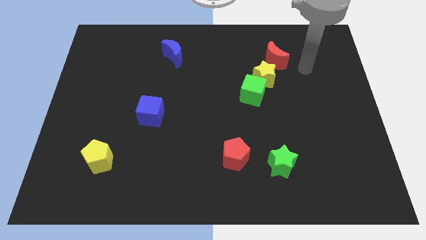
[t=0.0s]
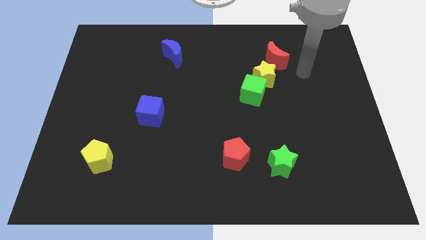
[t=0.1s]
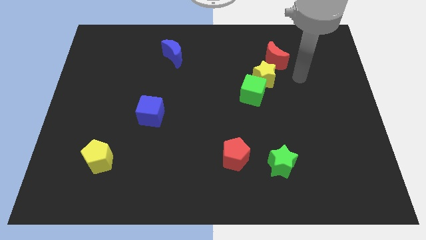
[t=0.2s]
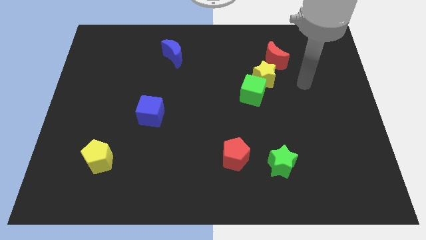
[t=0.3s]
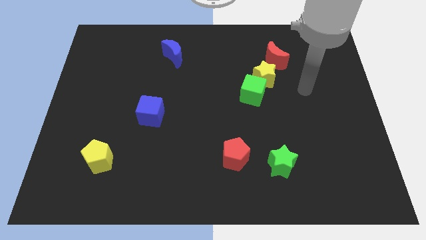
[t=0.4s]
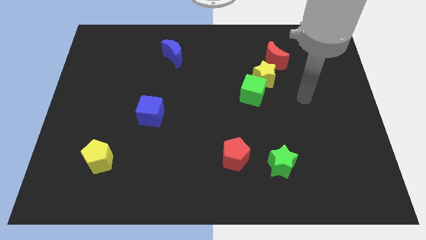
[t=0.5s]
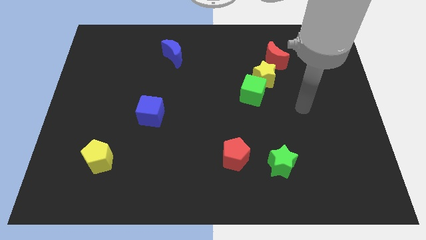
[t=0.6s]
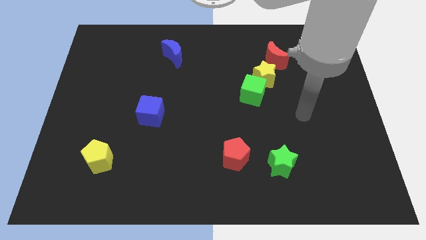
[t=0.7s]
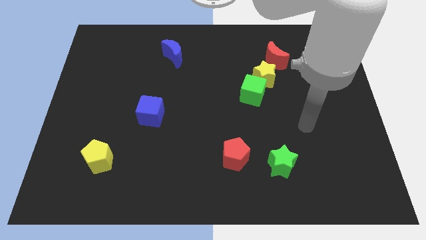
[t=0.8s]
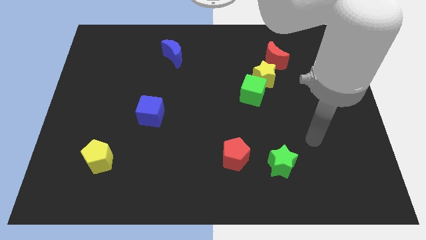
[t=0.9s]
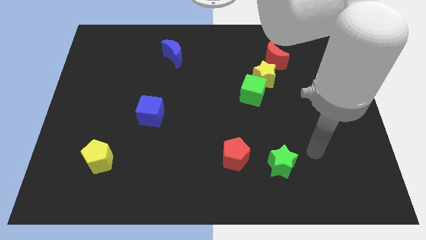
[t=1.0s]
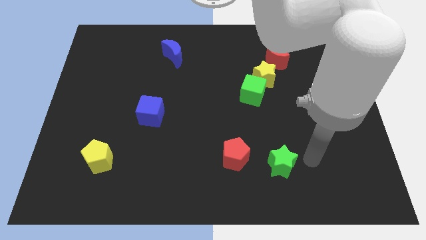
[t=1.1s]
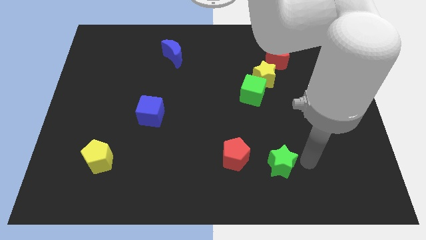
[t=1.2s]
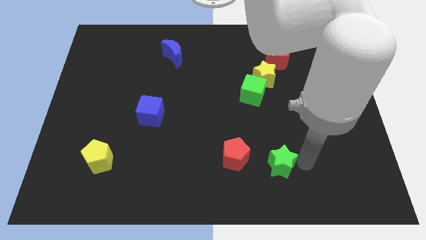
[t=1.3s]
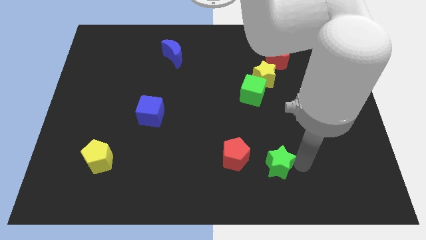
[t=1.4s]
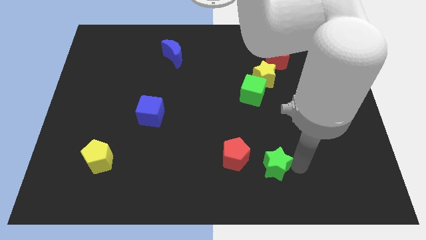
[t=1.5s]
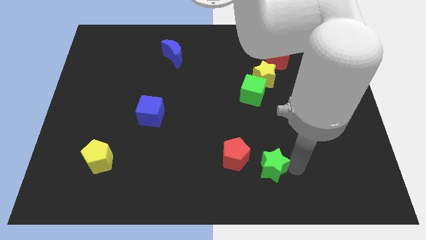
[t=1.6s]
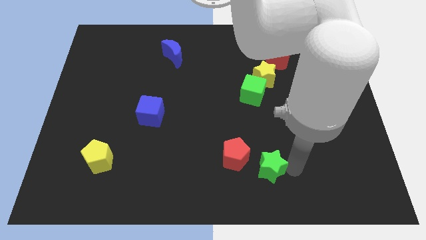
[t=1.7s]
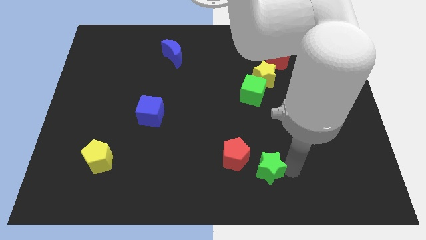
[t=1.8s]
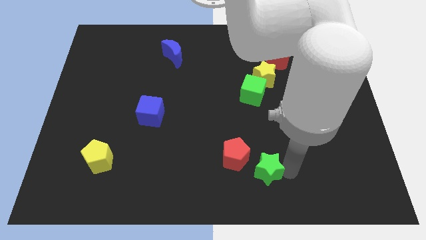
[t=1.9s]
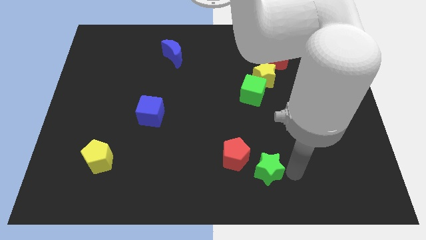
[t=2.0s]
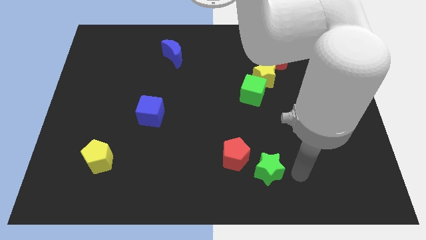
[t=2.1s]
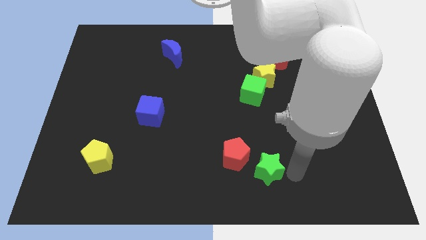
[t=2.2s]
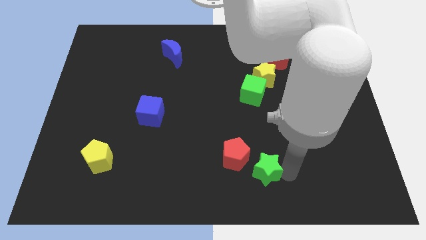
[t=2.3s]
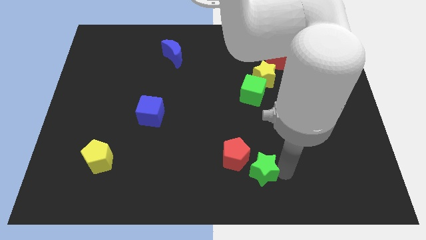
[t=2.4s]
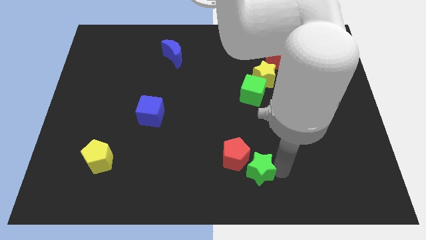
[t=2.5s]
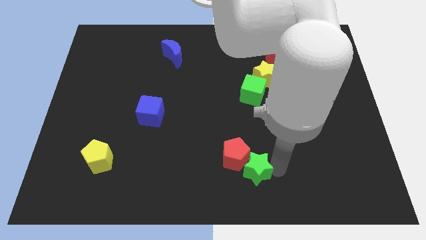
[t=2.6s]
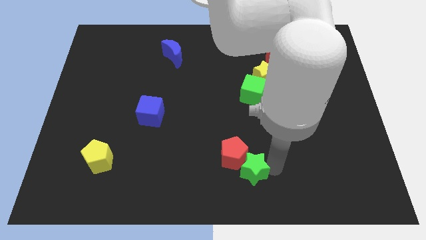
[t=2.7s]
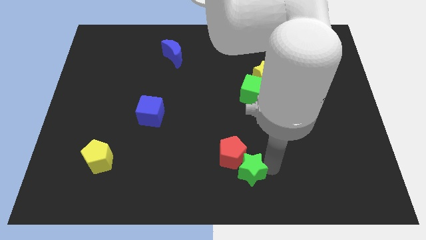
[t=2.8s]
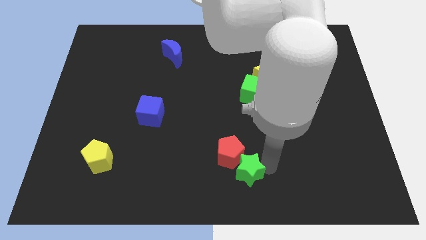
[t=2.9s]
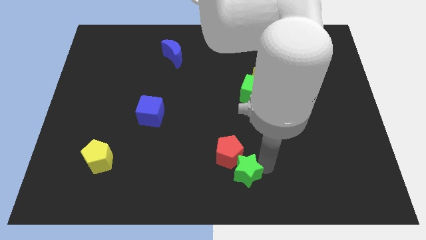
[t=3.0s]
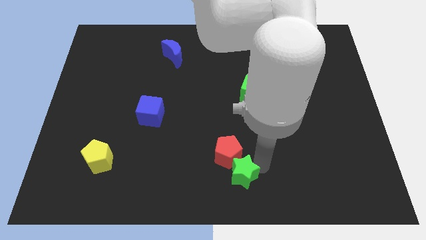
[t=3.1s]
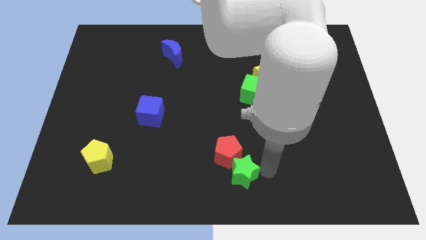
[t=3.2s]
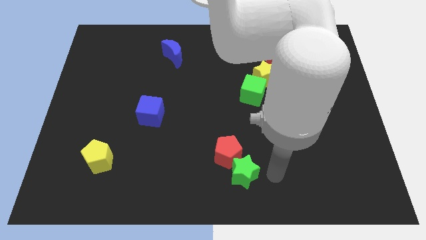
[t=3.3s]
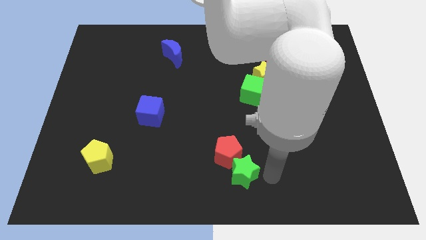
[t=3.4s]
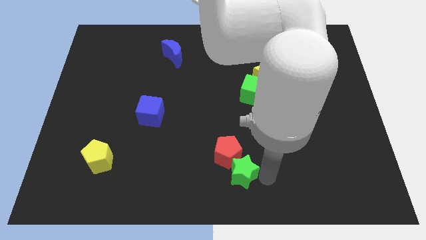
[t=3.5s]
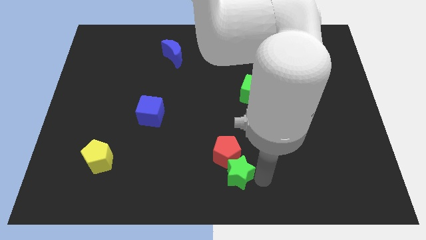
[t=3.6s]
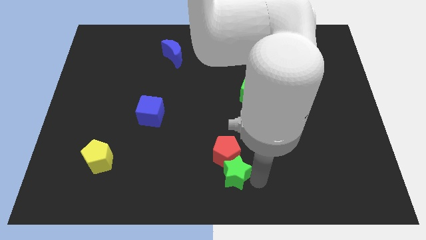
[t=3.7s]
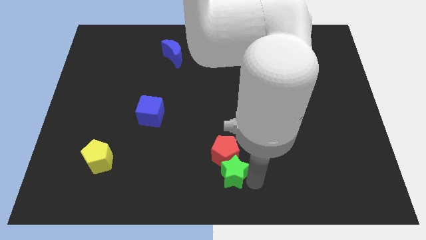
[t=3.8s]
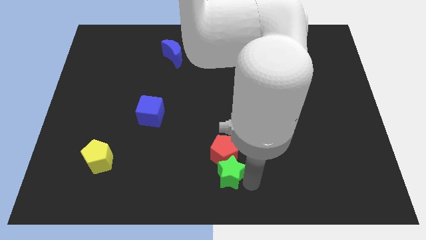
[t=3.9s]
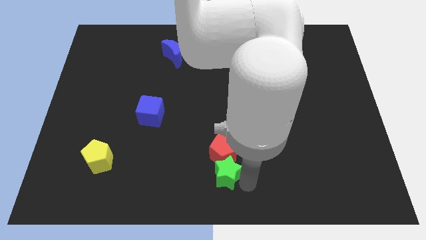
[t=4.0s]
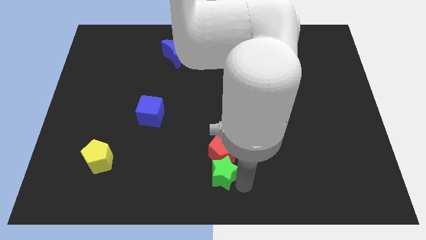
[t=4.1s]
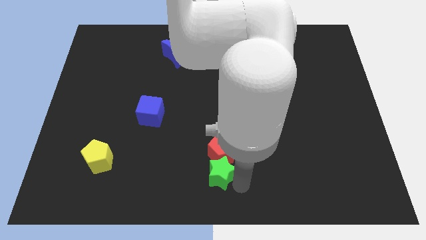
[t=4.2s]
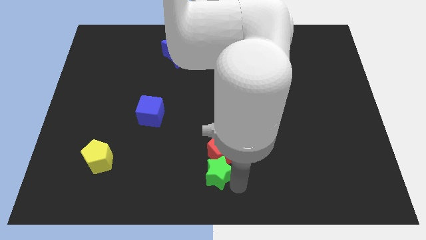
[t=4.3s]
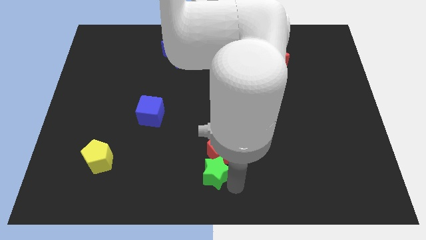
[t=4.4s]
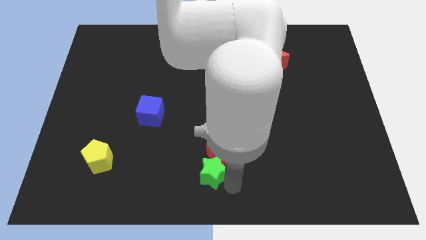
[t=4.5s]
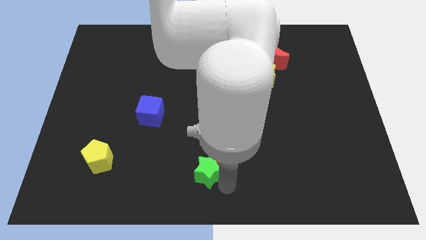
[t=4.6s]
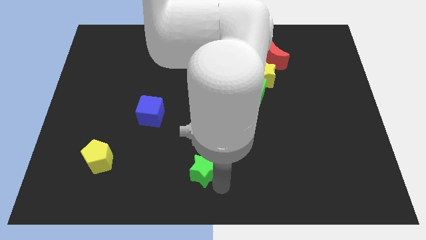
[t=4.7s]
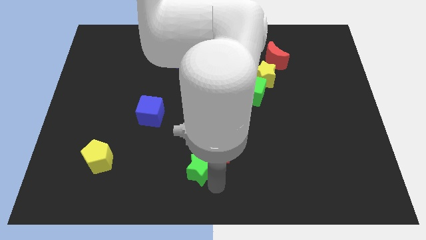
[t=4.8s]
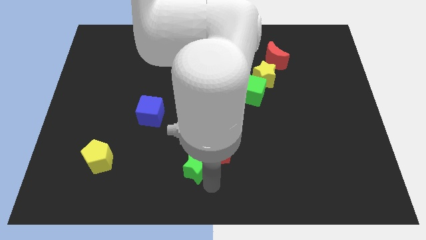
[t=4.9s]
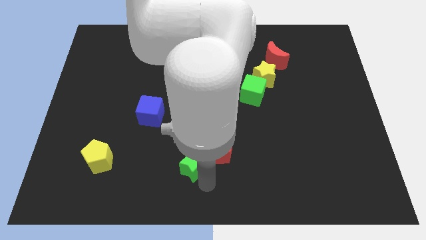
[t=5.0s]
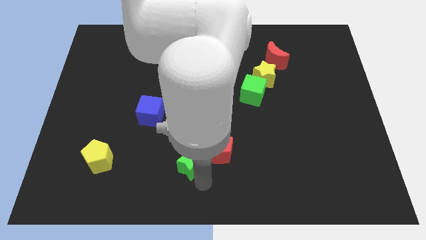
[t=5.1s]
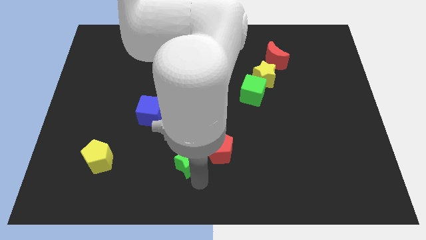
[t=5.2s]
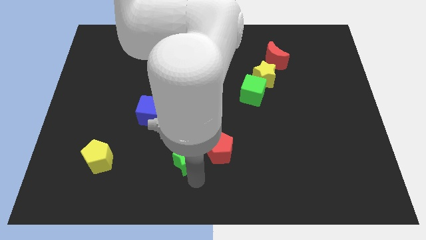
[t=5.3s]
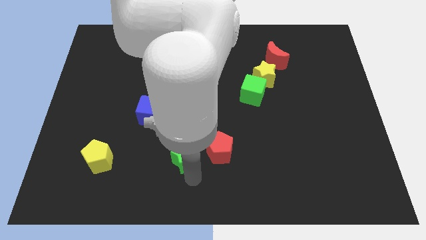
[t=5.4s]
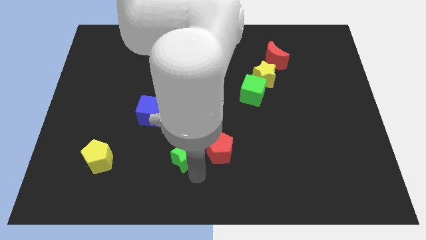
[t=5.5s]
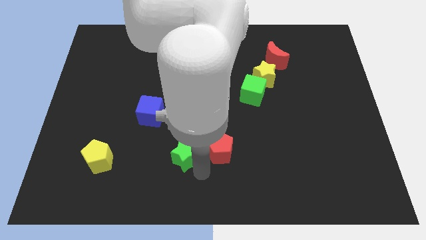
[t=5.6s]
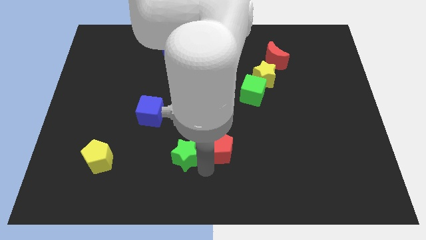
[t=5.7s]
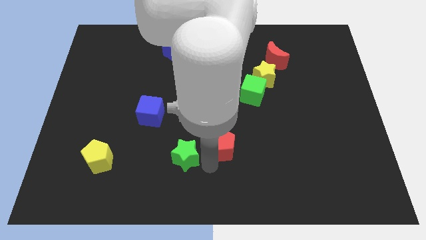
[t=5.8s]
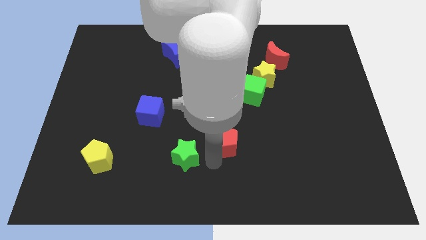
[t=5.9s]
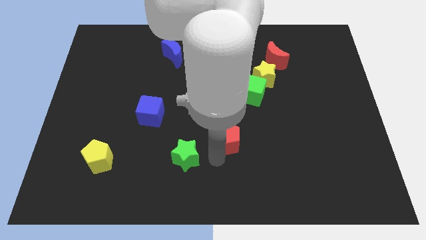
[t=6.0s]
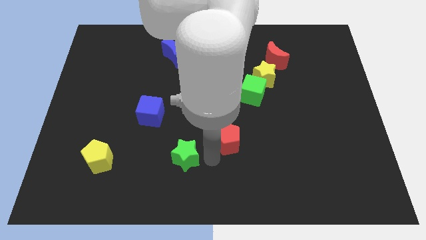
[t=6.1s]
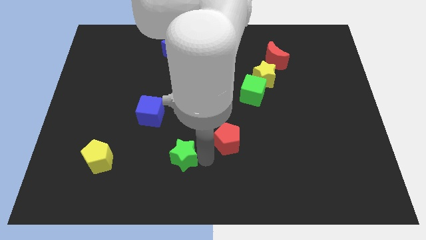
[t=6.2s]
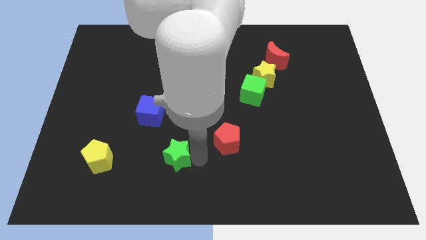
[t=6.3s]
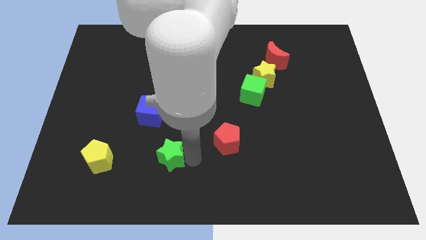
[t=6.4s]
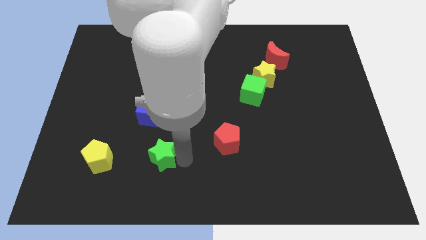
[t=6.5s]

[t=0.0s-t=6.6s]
move the green star to the bottom of the blue cube
